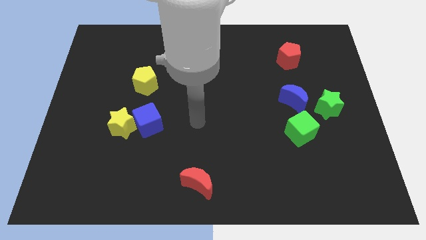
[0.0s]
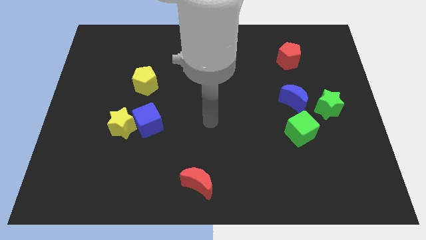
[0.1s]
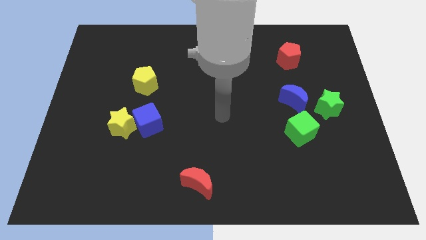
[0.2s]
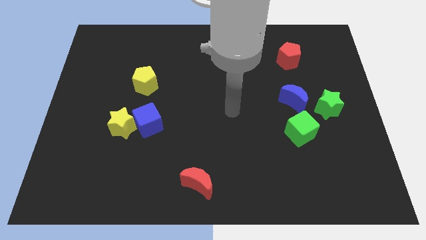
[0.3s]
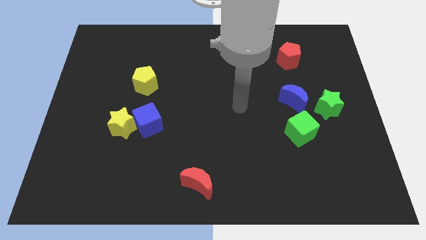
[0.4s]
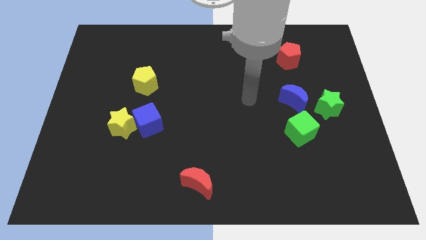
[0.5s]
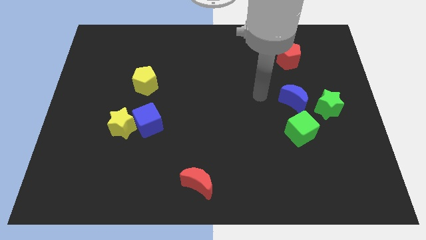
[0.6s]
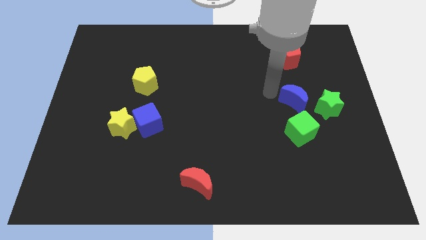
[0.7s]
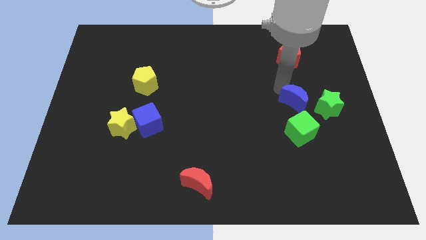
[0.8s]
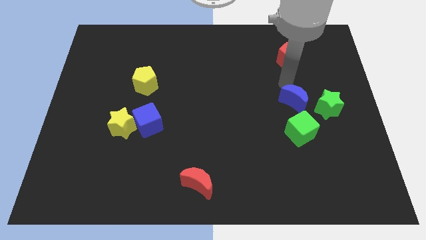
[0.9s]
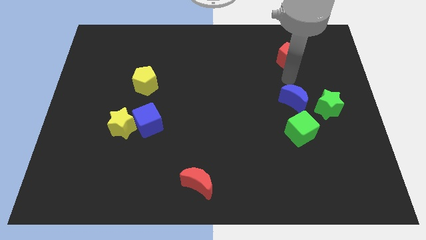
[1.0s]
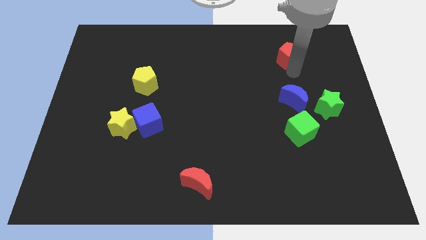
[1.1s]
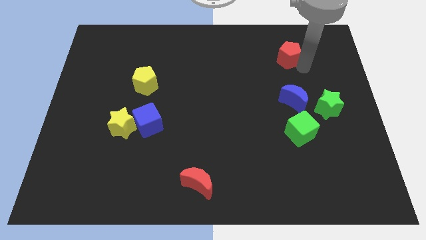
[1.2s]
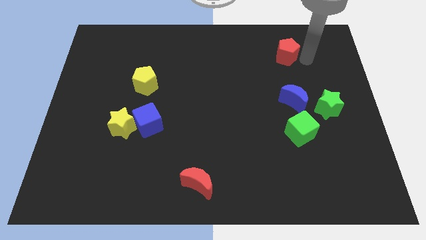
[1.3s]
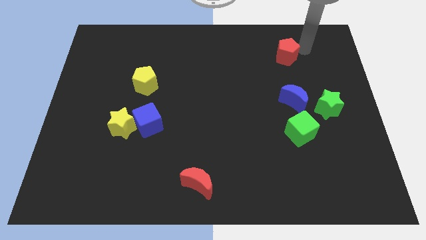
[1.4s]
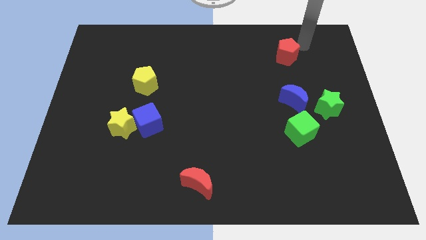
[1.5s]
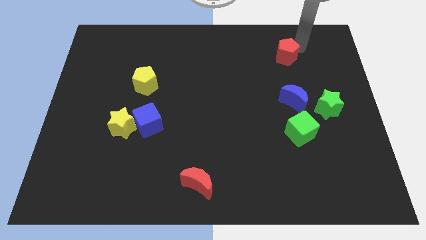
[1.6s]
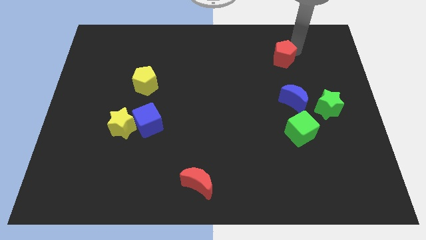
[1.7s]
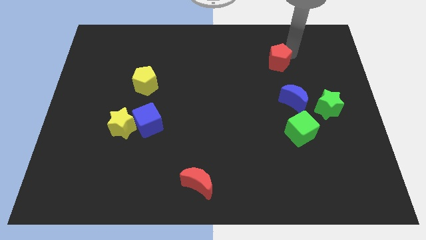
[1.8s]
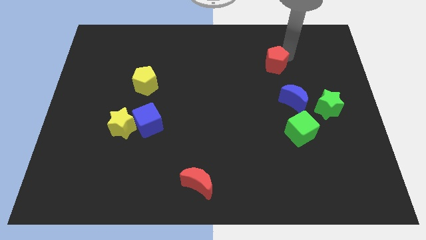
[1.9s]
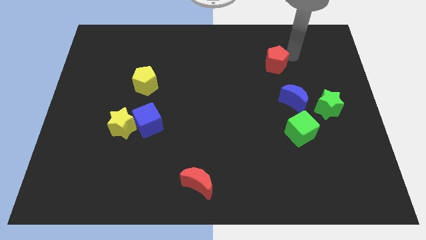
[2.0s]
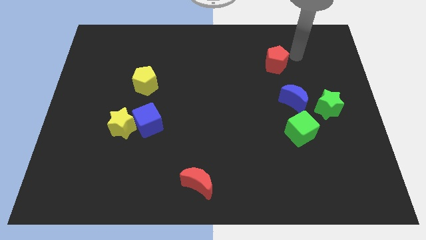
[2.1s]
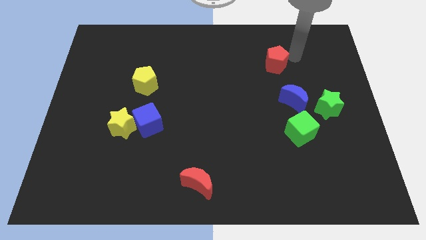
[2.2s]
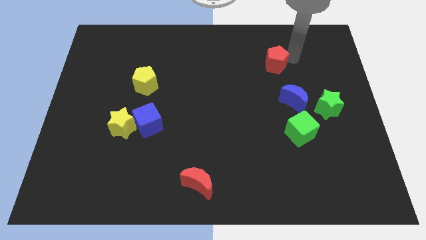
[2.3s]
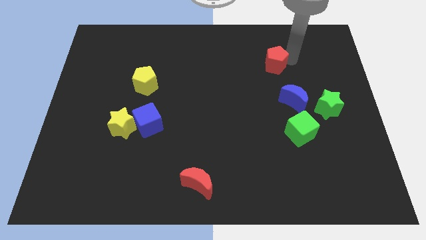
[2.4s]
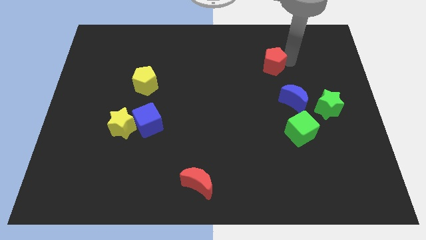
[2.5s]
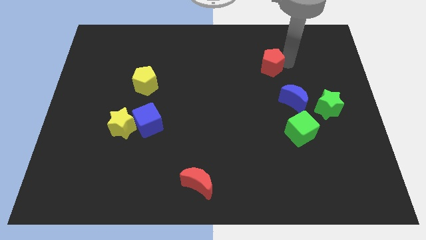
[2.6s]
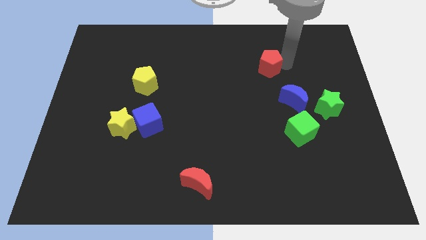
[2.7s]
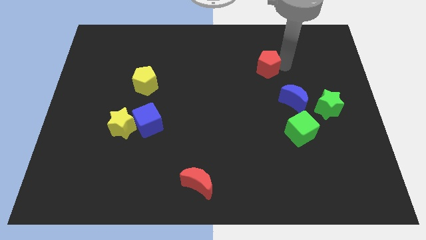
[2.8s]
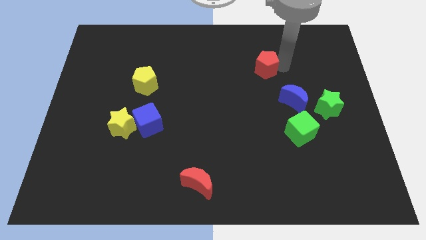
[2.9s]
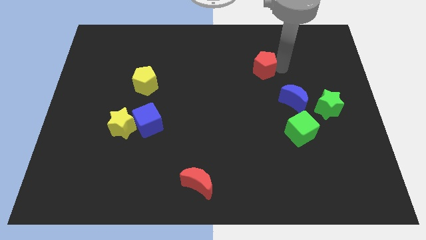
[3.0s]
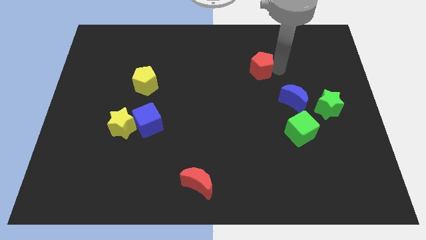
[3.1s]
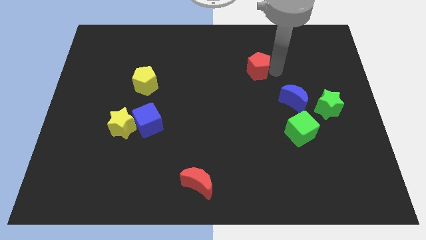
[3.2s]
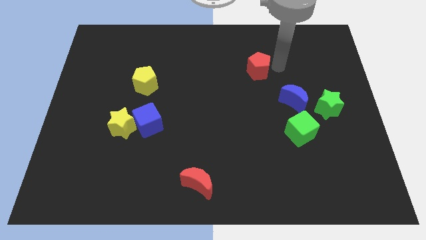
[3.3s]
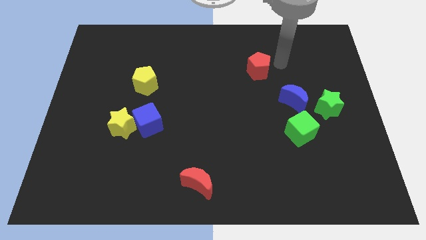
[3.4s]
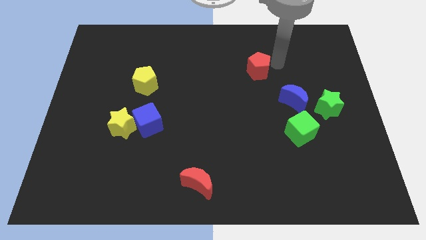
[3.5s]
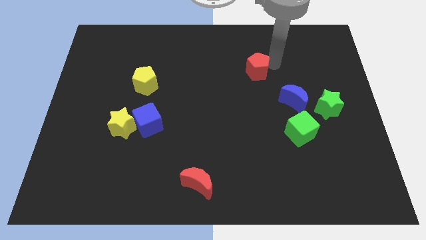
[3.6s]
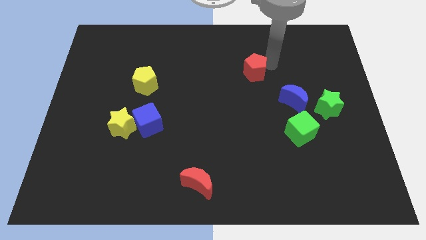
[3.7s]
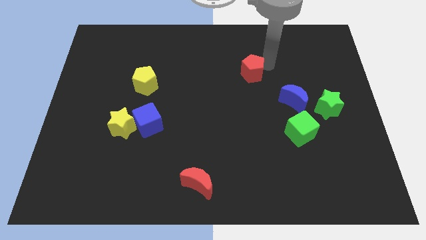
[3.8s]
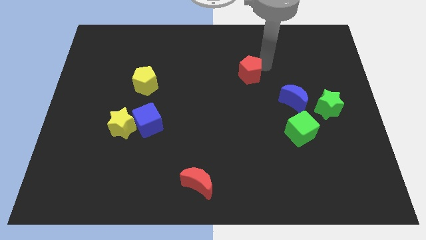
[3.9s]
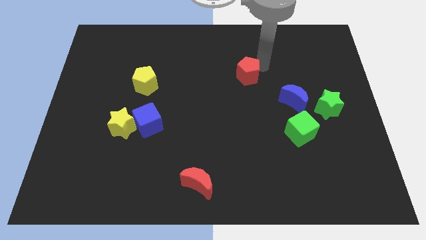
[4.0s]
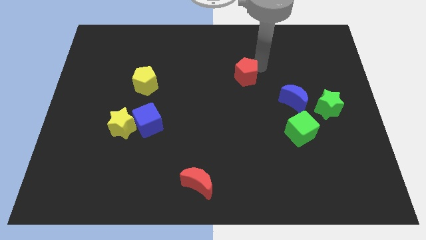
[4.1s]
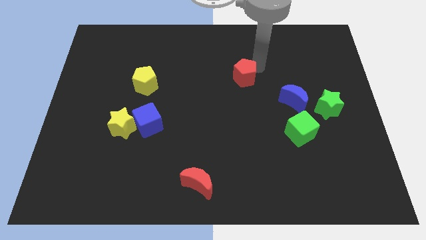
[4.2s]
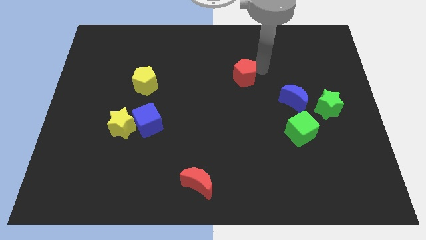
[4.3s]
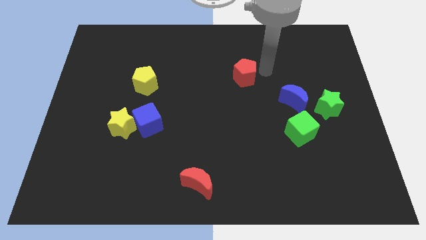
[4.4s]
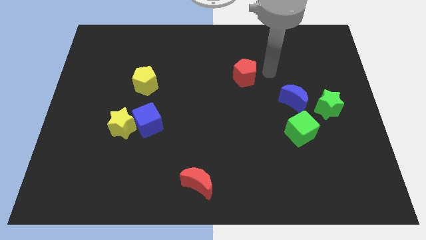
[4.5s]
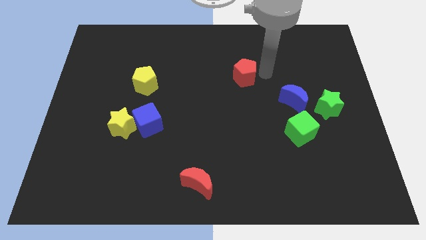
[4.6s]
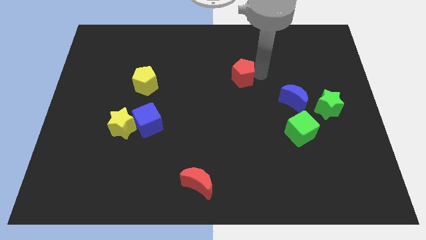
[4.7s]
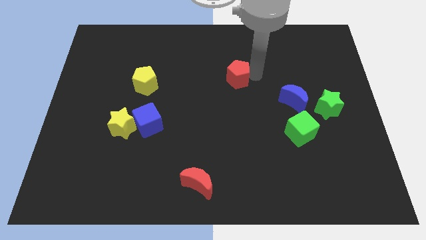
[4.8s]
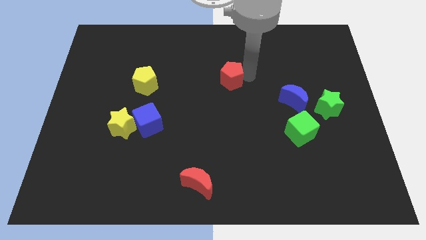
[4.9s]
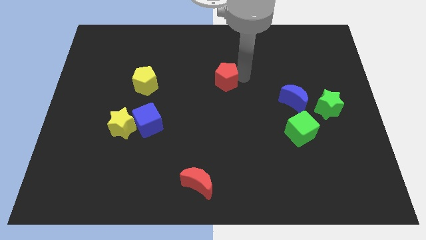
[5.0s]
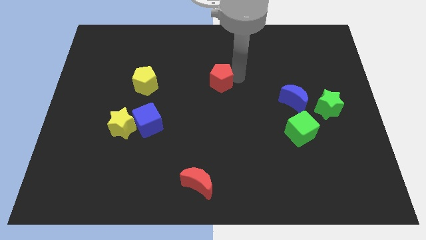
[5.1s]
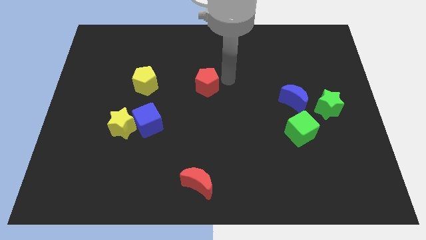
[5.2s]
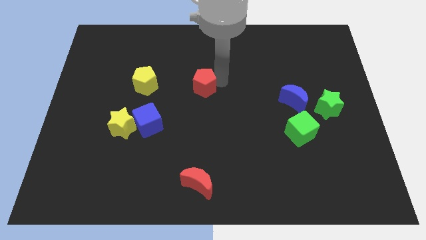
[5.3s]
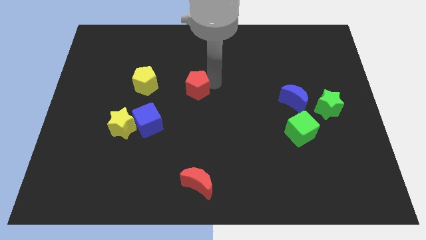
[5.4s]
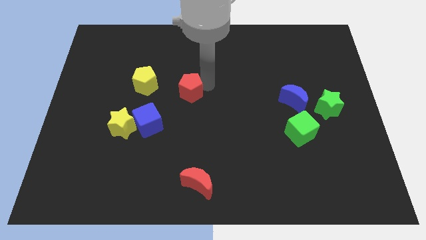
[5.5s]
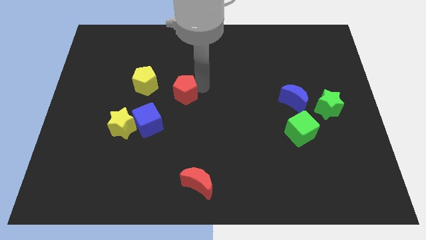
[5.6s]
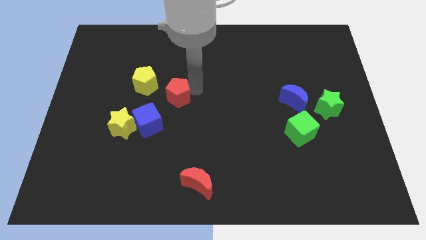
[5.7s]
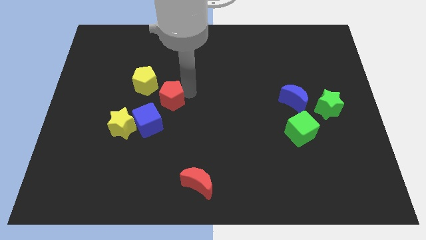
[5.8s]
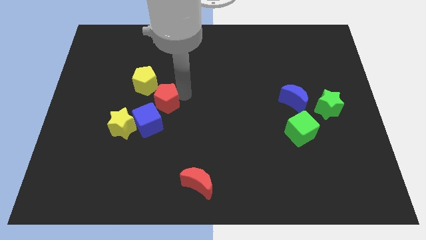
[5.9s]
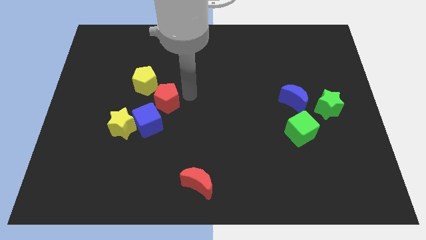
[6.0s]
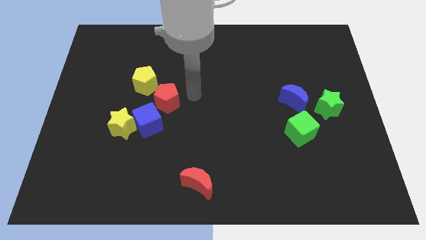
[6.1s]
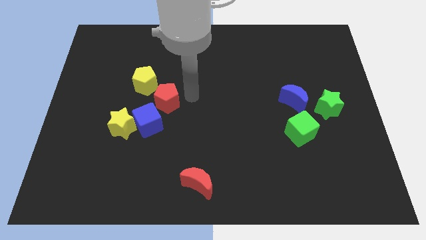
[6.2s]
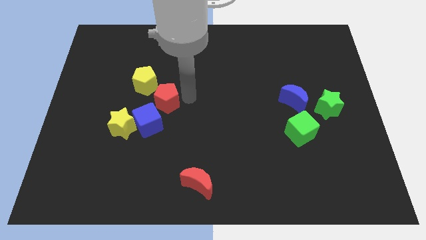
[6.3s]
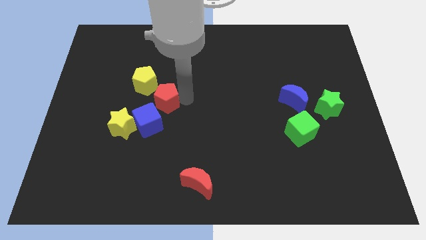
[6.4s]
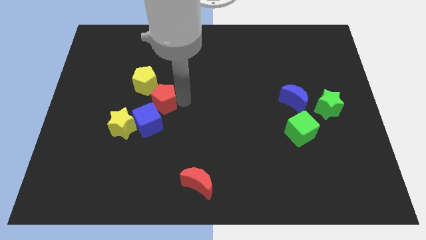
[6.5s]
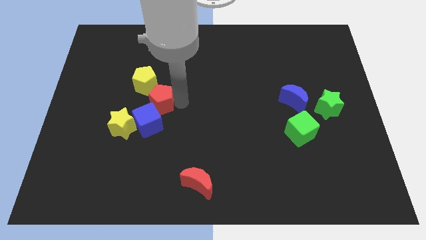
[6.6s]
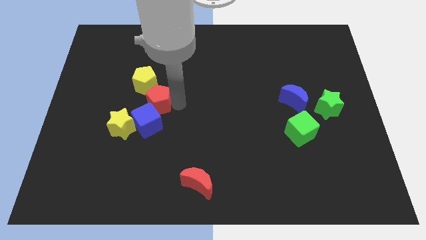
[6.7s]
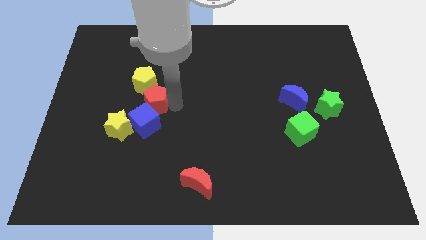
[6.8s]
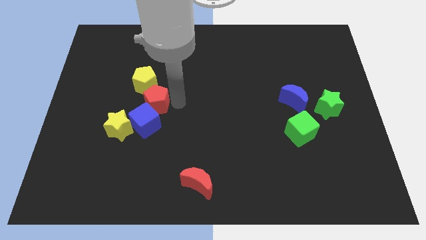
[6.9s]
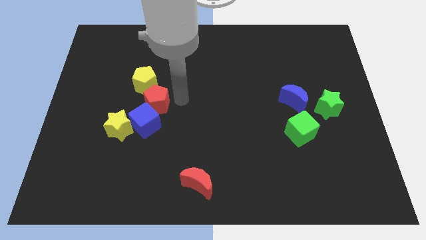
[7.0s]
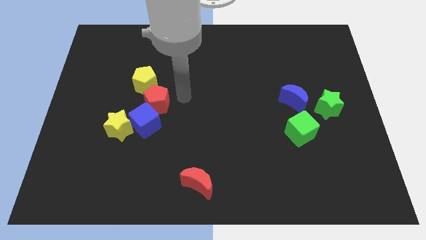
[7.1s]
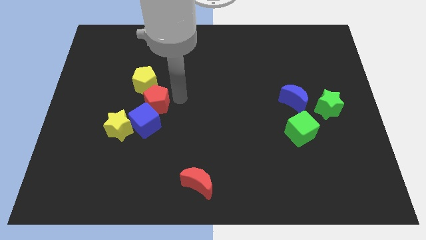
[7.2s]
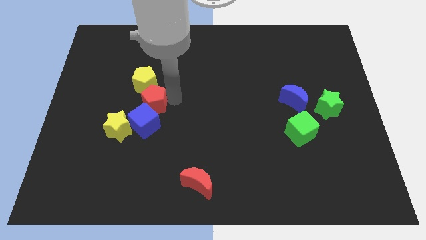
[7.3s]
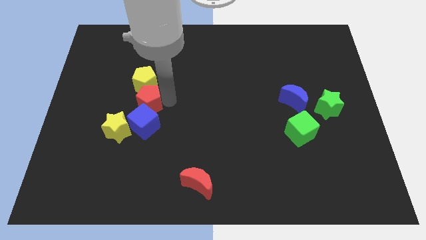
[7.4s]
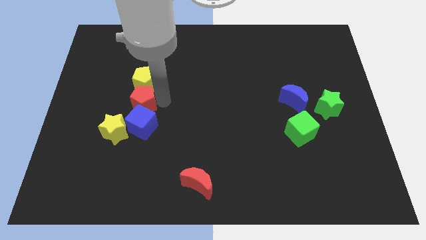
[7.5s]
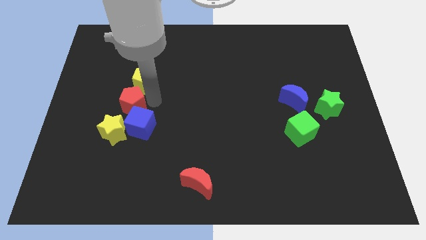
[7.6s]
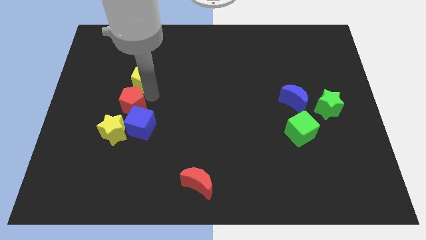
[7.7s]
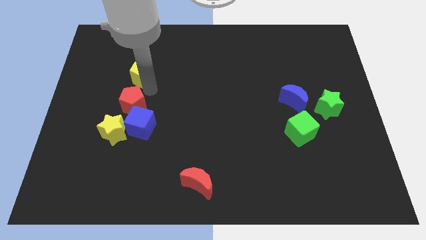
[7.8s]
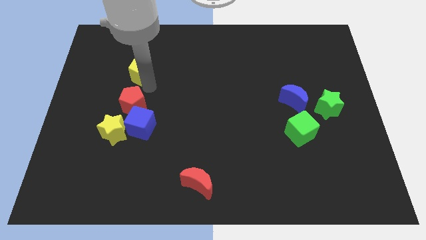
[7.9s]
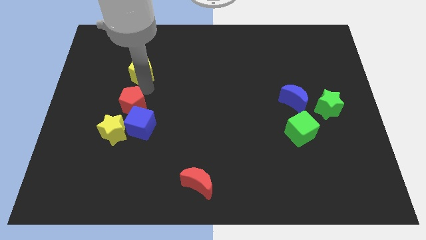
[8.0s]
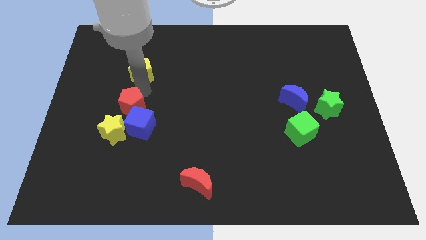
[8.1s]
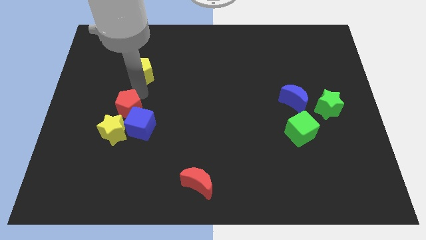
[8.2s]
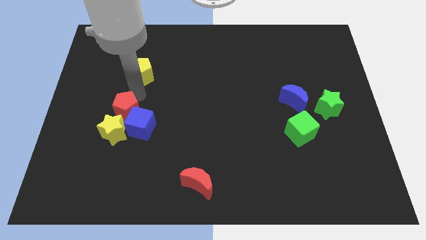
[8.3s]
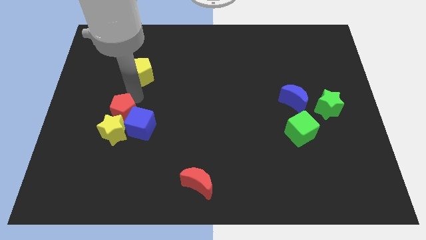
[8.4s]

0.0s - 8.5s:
move the red pentagon towards the yellow star
